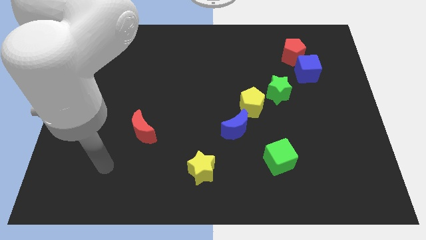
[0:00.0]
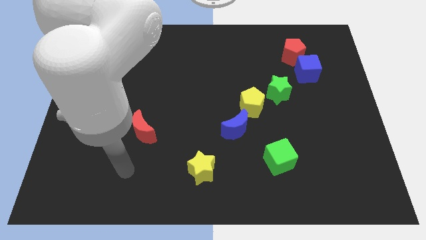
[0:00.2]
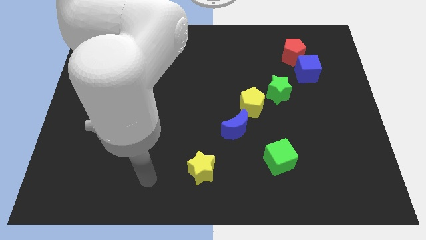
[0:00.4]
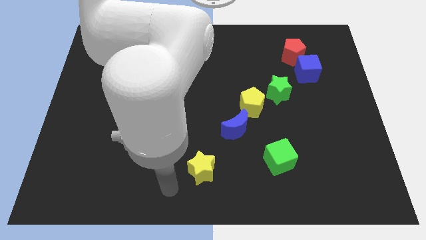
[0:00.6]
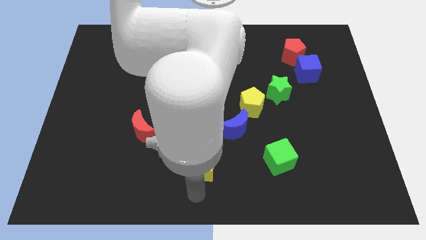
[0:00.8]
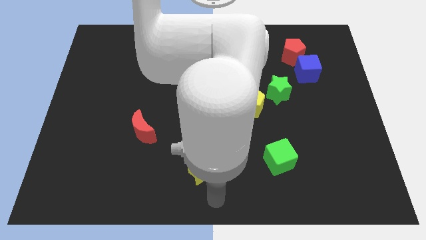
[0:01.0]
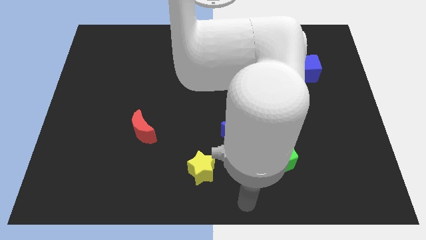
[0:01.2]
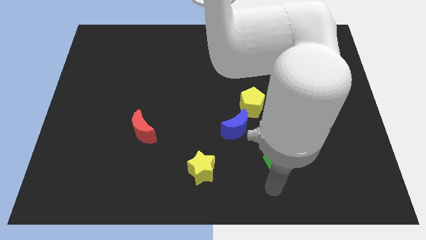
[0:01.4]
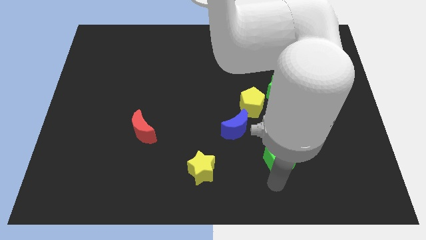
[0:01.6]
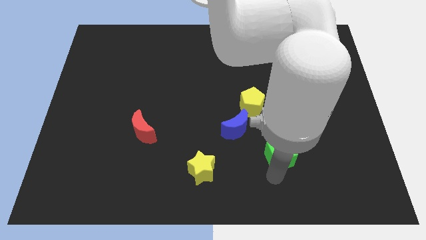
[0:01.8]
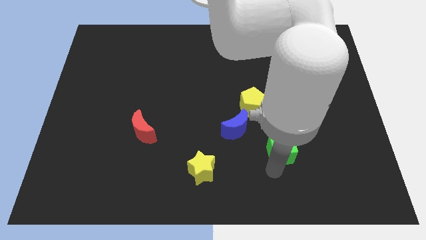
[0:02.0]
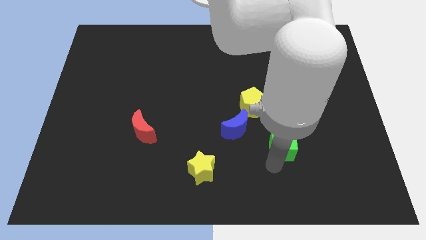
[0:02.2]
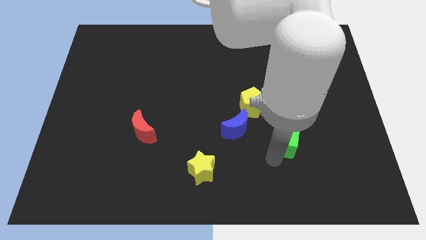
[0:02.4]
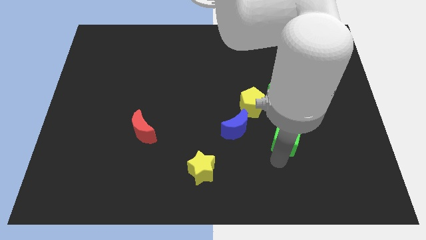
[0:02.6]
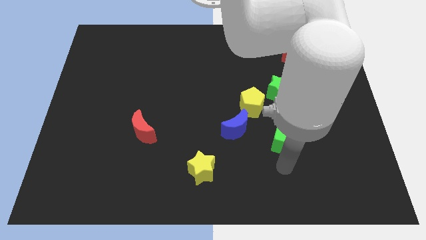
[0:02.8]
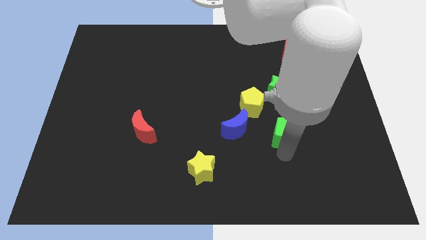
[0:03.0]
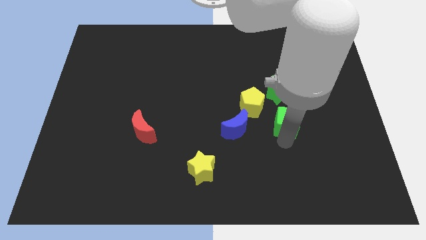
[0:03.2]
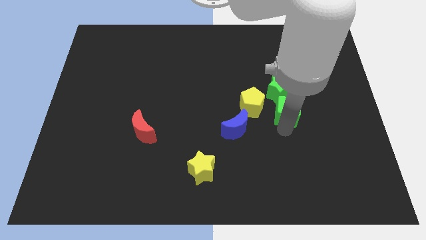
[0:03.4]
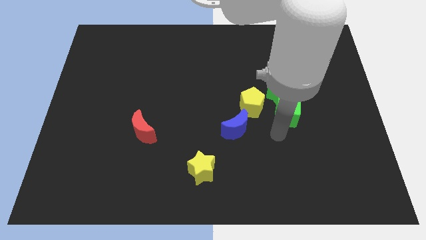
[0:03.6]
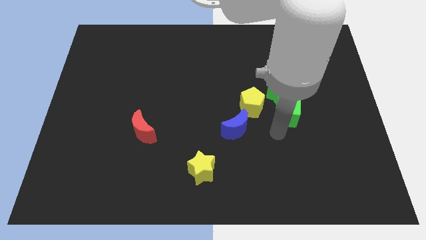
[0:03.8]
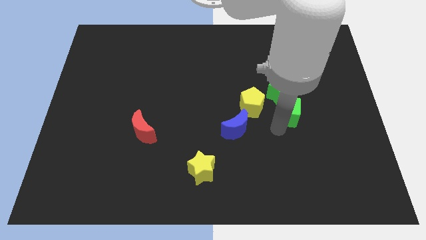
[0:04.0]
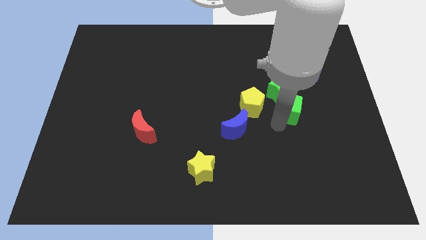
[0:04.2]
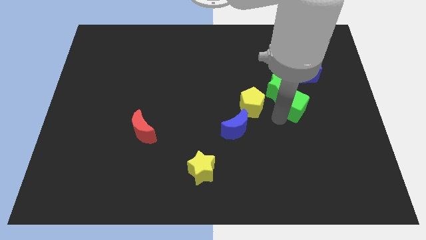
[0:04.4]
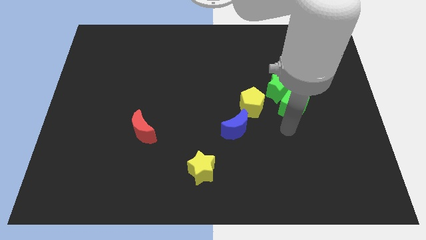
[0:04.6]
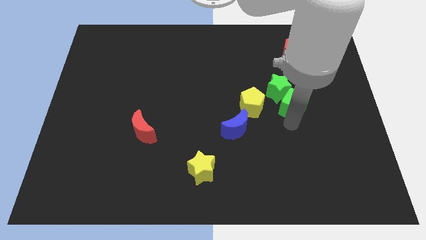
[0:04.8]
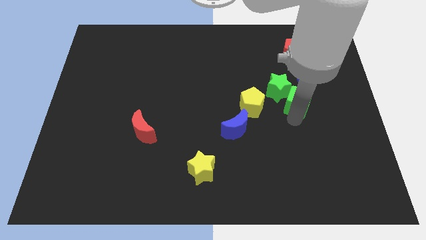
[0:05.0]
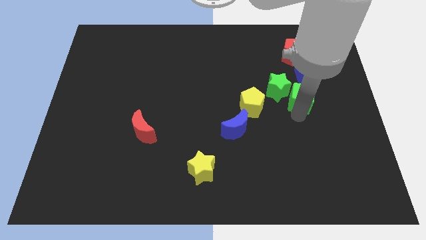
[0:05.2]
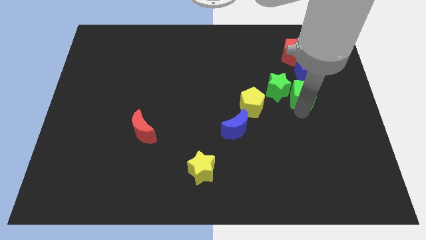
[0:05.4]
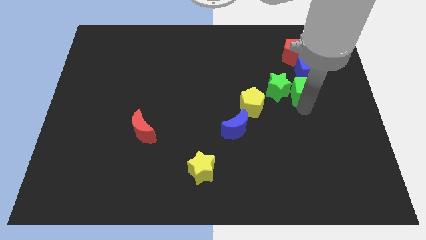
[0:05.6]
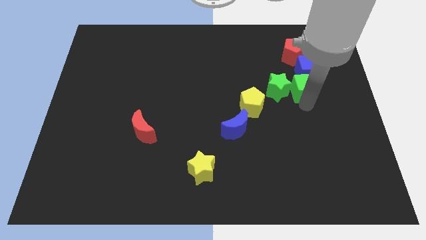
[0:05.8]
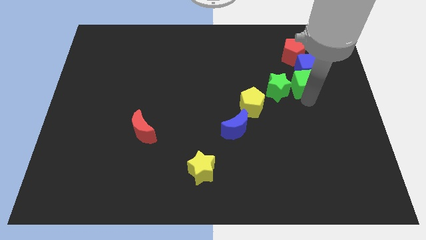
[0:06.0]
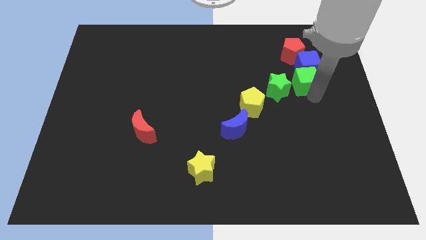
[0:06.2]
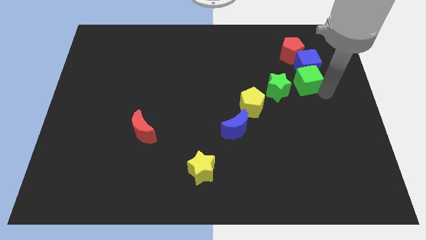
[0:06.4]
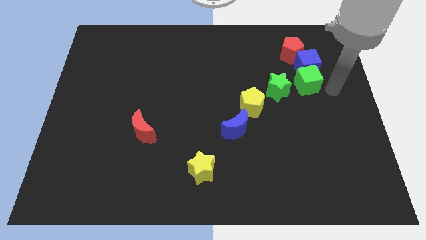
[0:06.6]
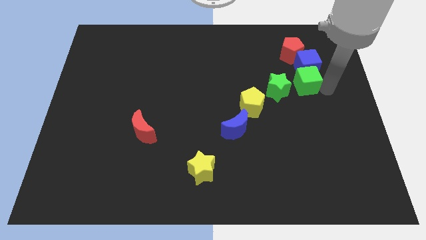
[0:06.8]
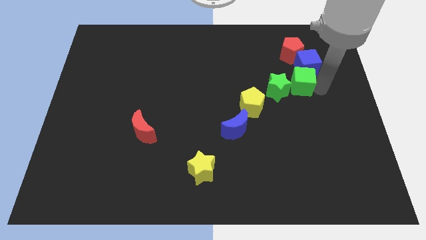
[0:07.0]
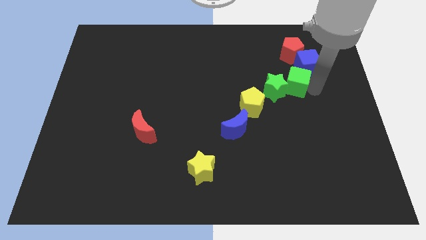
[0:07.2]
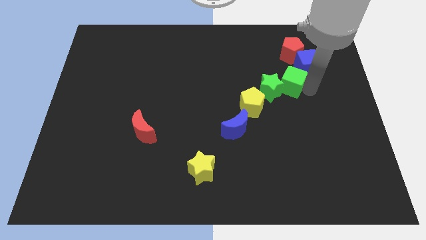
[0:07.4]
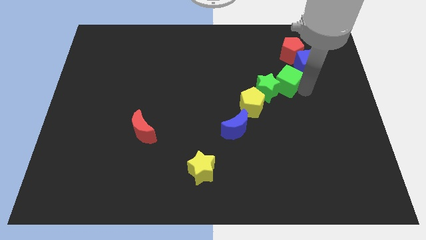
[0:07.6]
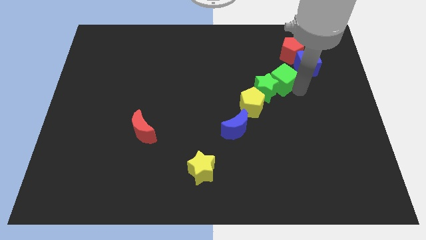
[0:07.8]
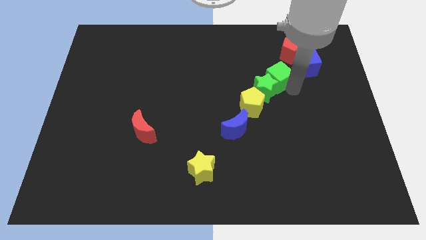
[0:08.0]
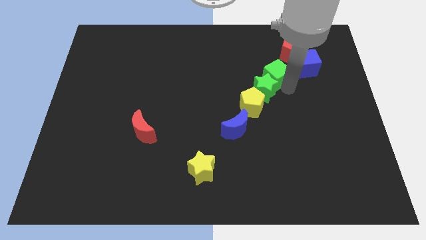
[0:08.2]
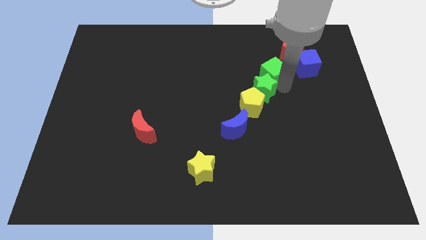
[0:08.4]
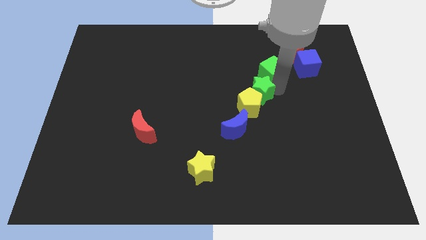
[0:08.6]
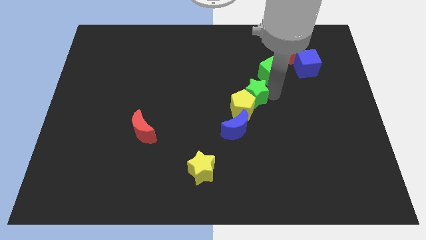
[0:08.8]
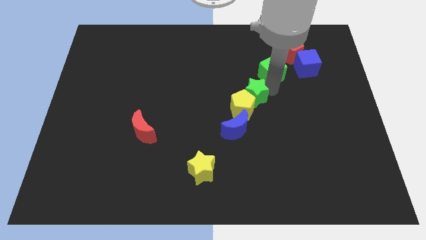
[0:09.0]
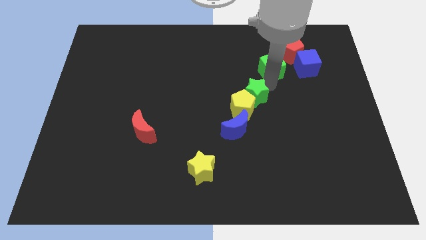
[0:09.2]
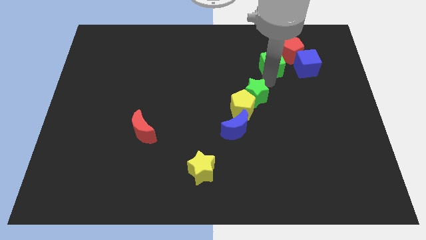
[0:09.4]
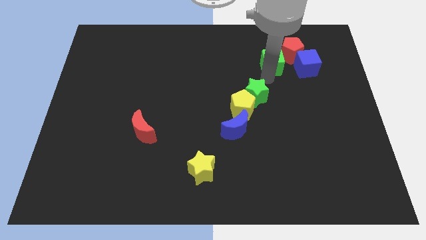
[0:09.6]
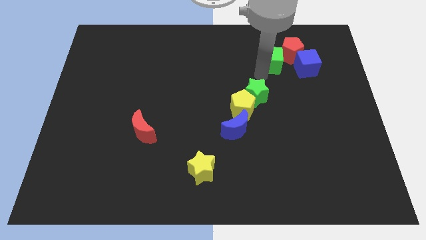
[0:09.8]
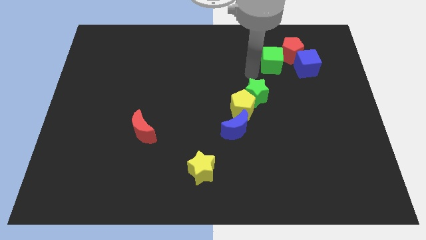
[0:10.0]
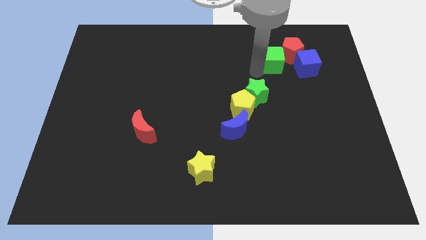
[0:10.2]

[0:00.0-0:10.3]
slide the green cube next to the red pentagon

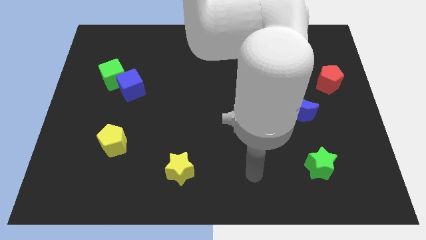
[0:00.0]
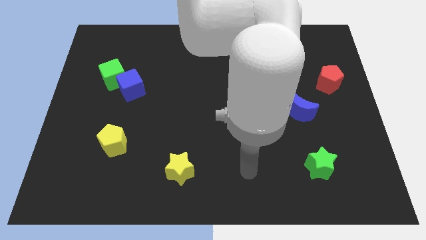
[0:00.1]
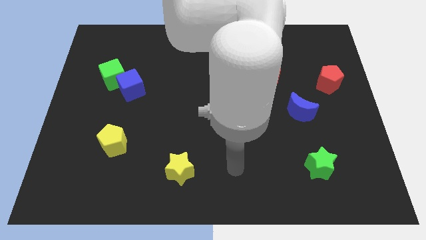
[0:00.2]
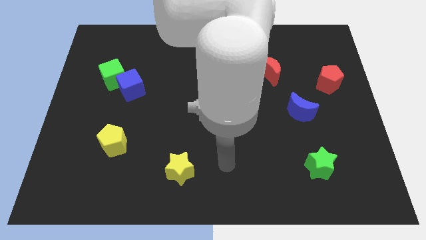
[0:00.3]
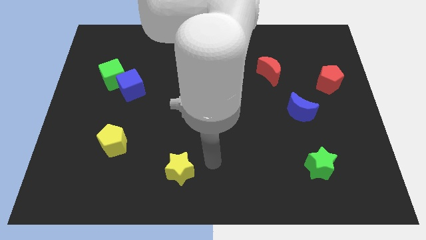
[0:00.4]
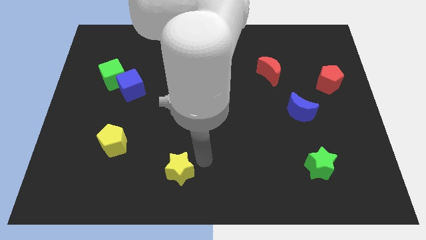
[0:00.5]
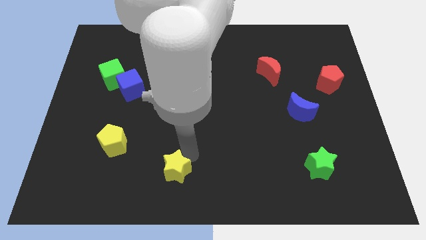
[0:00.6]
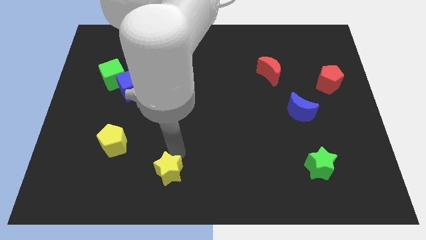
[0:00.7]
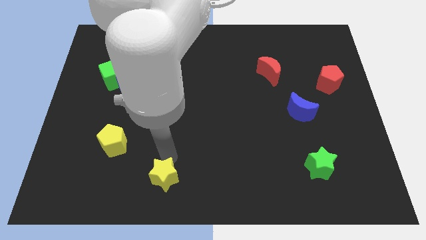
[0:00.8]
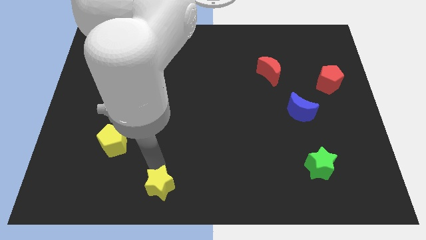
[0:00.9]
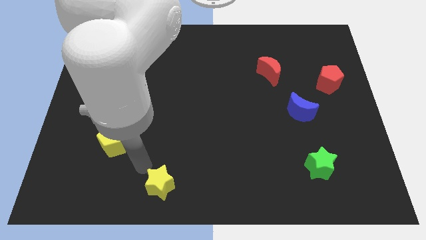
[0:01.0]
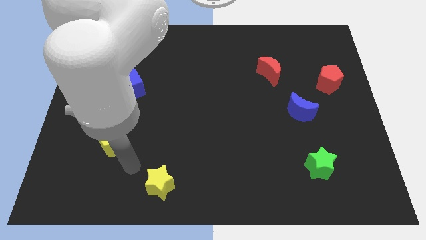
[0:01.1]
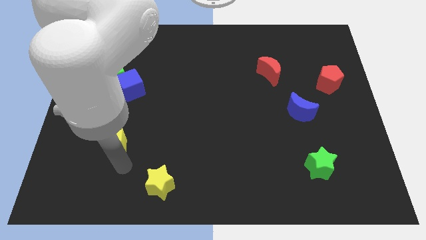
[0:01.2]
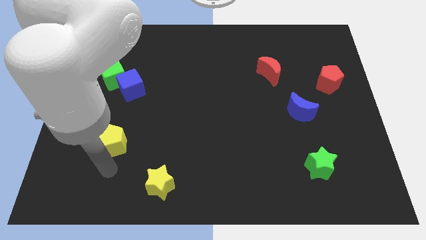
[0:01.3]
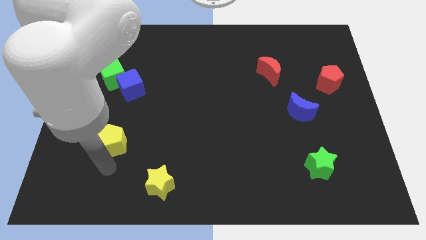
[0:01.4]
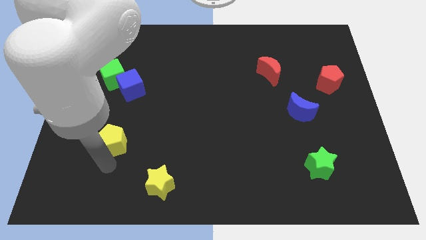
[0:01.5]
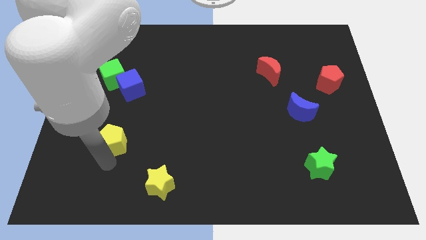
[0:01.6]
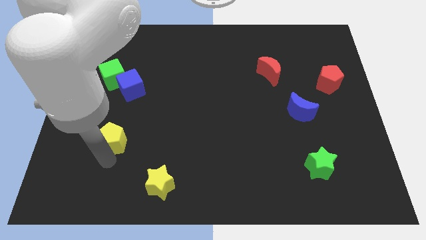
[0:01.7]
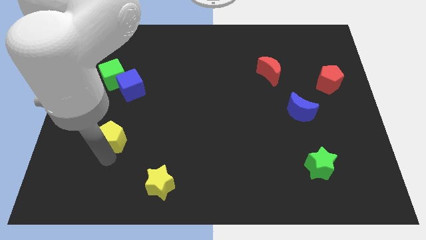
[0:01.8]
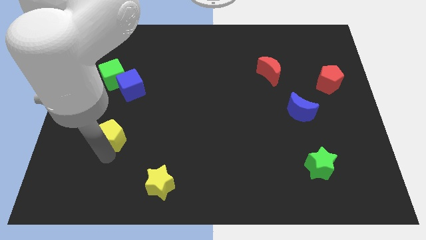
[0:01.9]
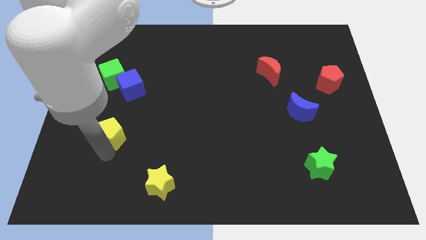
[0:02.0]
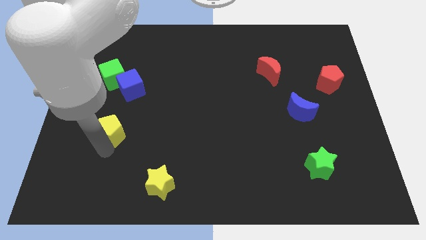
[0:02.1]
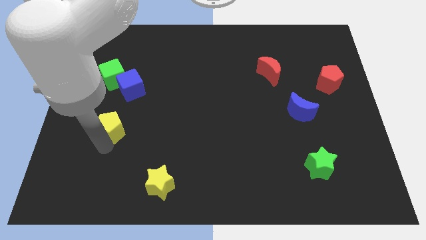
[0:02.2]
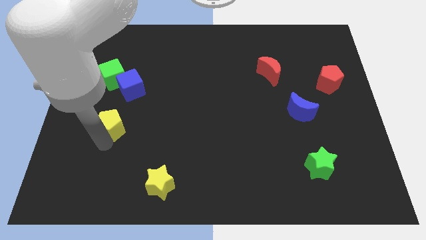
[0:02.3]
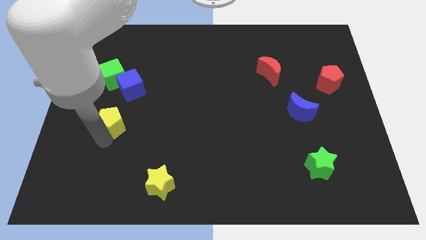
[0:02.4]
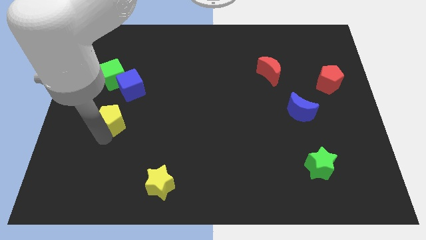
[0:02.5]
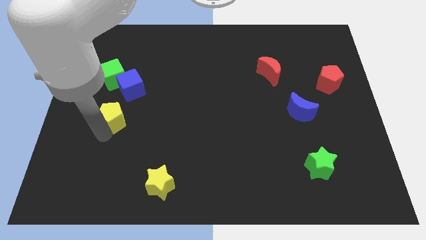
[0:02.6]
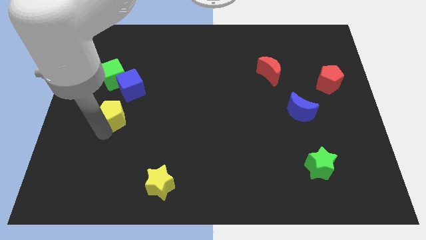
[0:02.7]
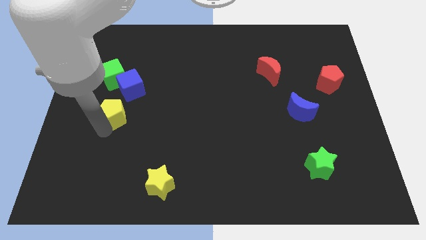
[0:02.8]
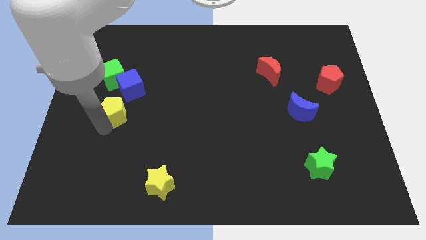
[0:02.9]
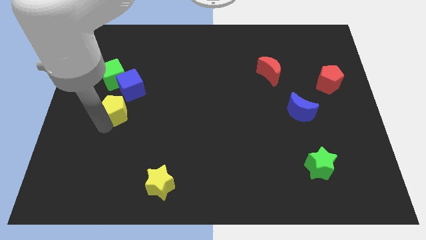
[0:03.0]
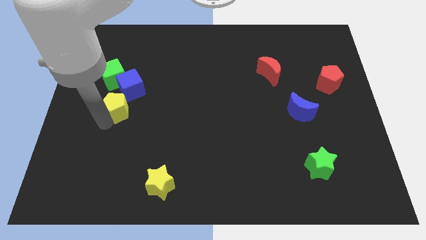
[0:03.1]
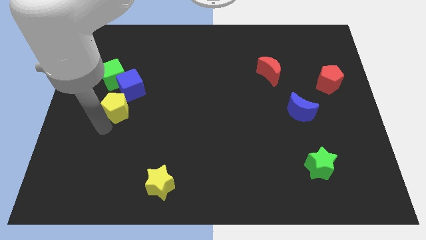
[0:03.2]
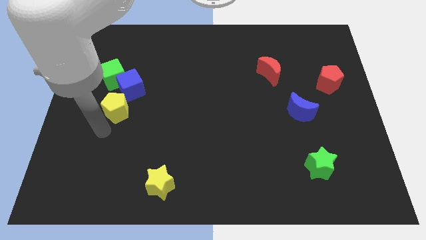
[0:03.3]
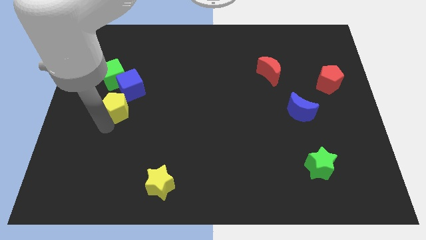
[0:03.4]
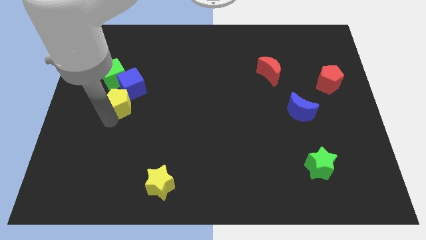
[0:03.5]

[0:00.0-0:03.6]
move the yellow pentagon next to the blue cube
